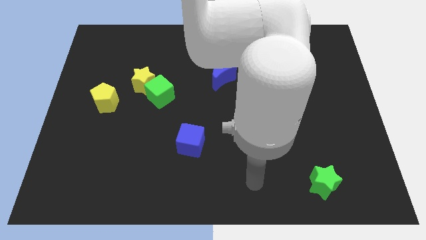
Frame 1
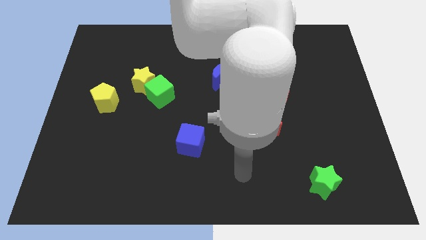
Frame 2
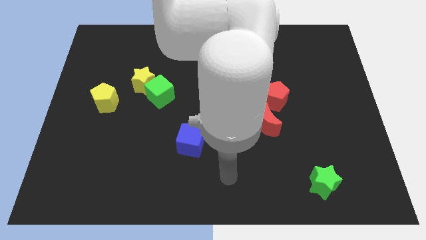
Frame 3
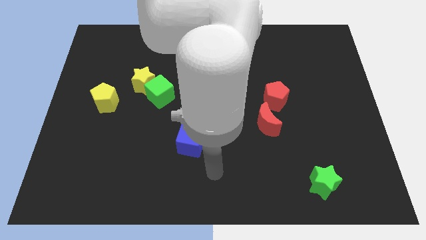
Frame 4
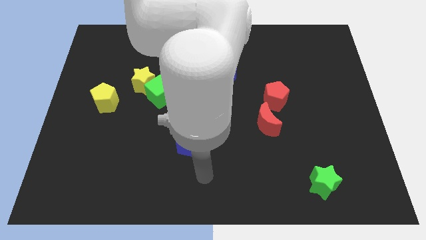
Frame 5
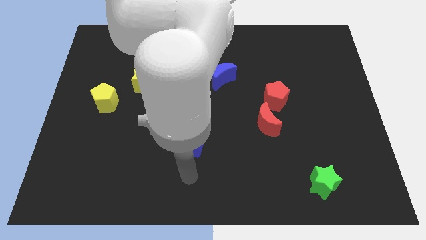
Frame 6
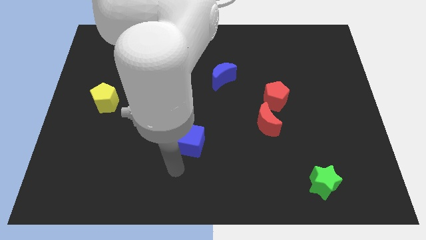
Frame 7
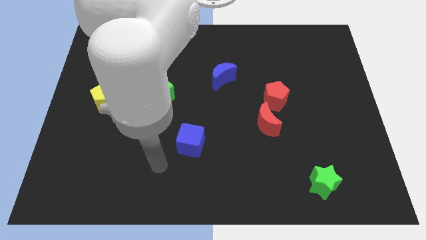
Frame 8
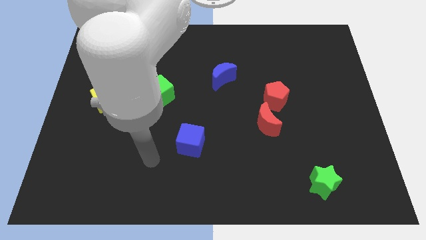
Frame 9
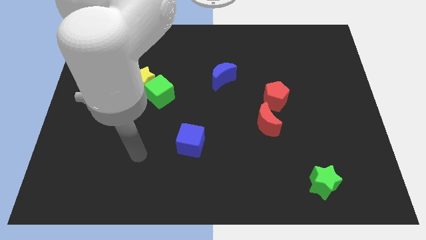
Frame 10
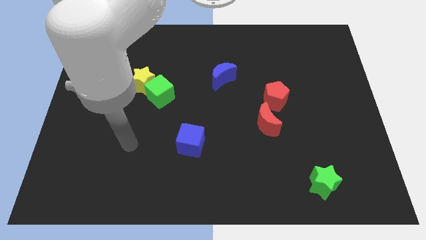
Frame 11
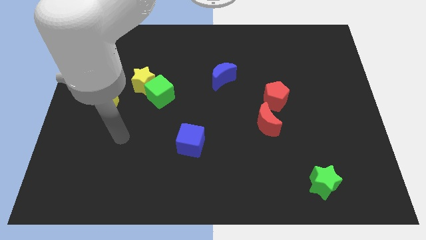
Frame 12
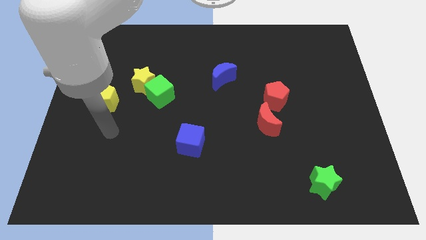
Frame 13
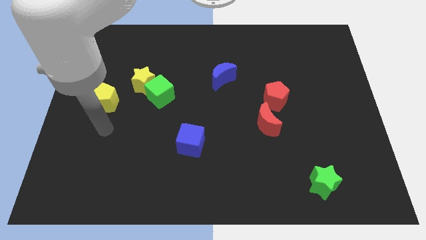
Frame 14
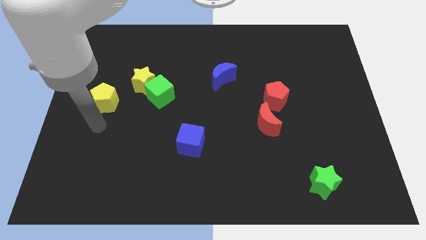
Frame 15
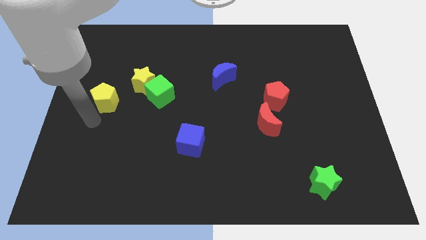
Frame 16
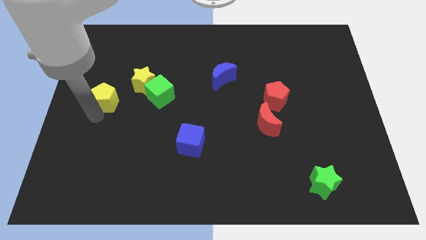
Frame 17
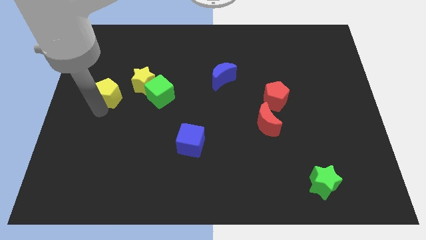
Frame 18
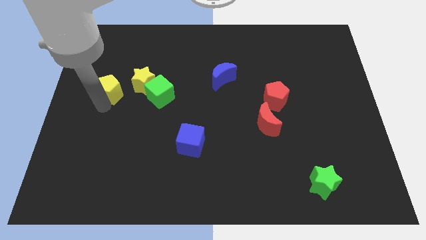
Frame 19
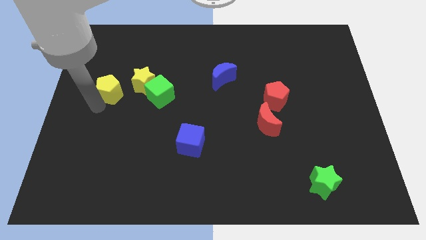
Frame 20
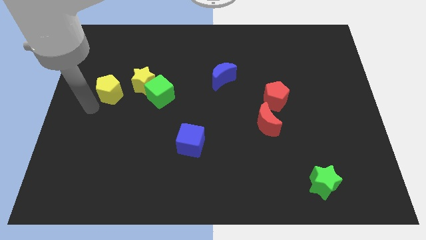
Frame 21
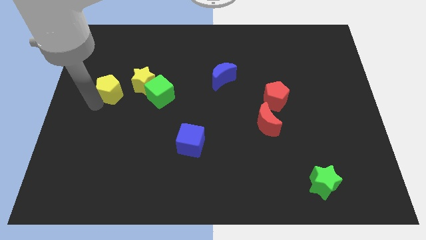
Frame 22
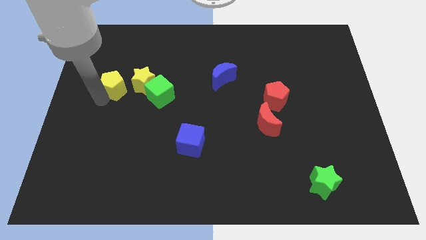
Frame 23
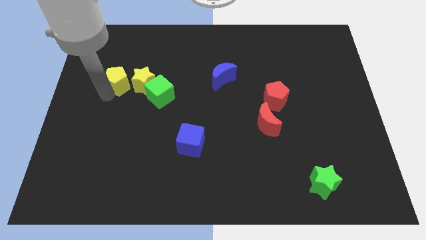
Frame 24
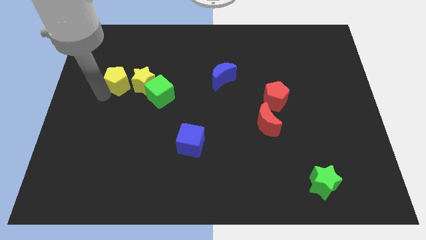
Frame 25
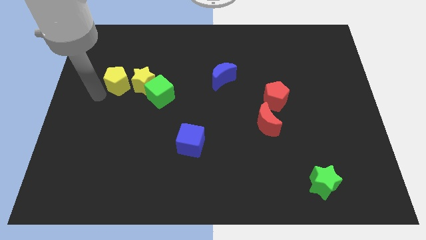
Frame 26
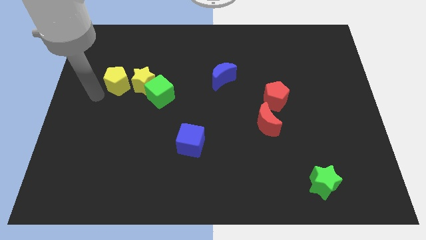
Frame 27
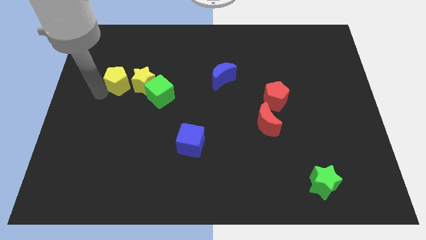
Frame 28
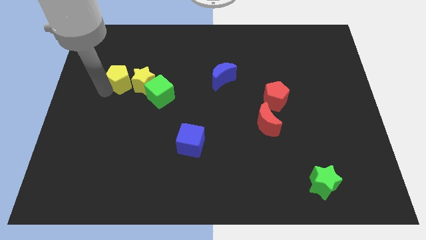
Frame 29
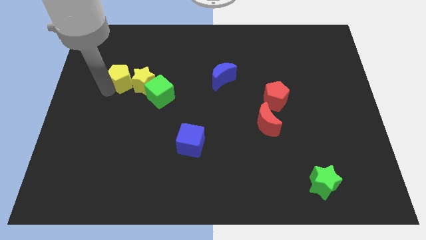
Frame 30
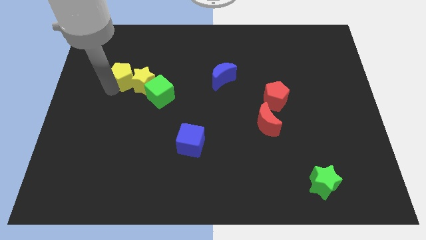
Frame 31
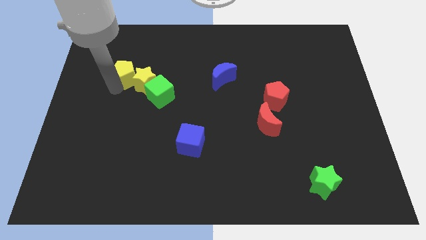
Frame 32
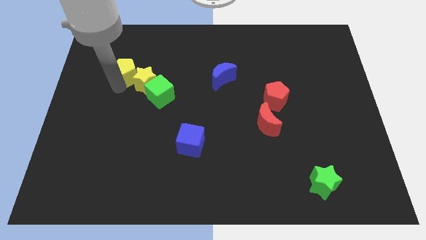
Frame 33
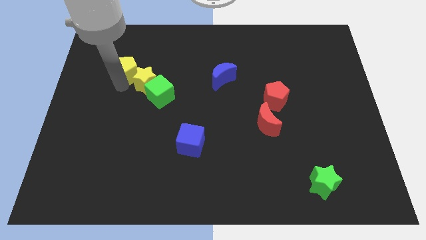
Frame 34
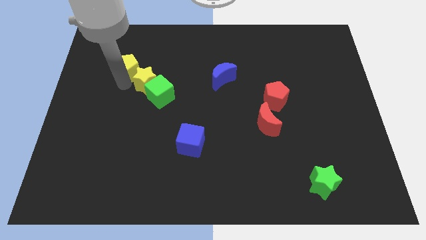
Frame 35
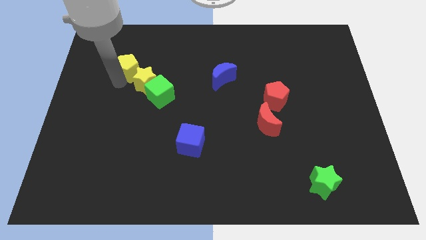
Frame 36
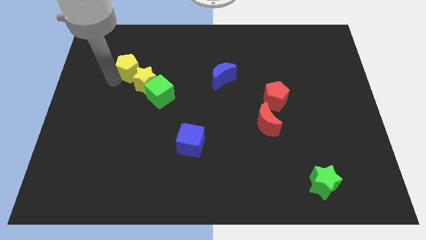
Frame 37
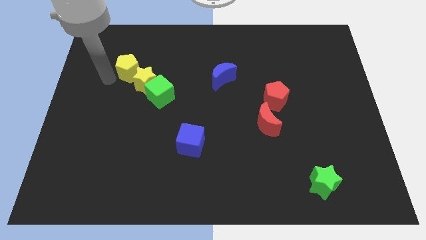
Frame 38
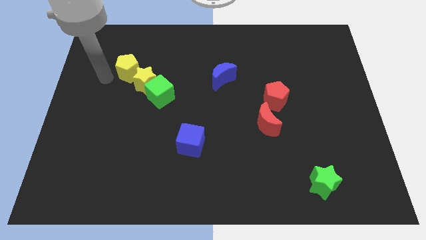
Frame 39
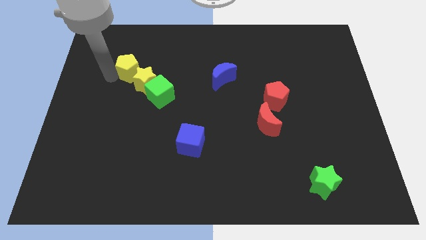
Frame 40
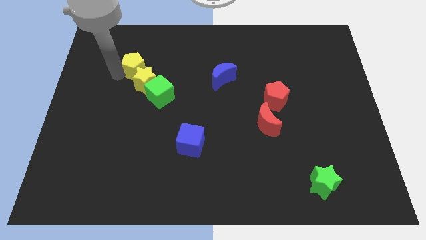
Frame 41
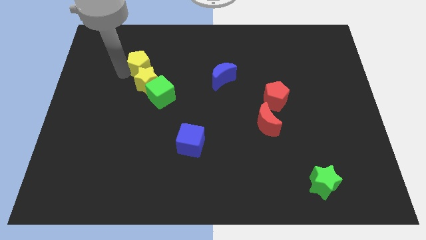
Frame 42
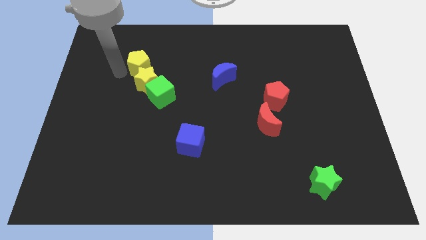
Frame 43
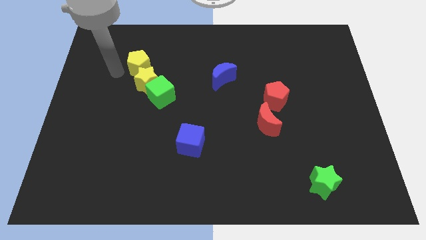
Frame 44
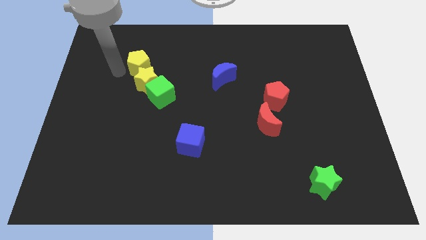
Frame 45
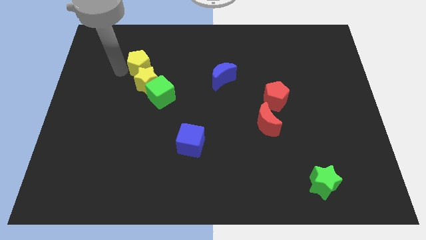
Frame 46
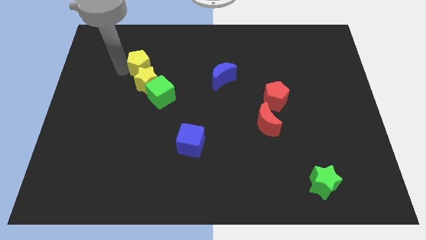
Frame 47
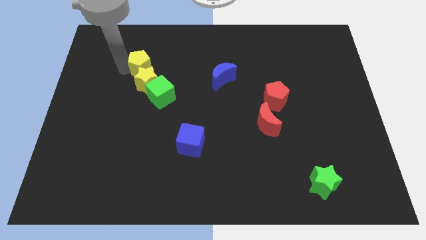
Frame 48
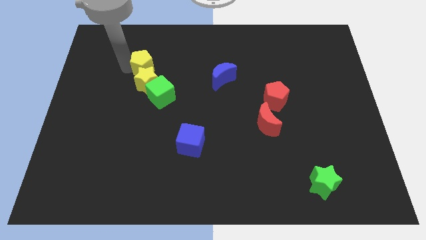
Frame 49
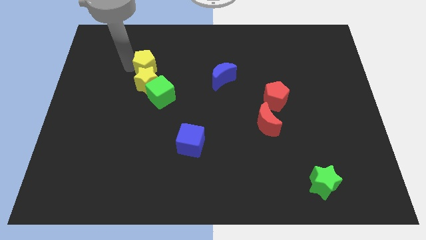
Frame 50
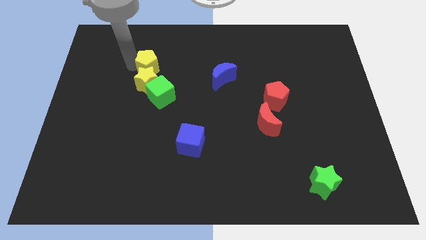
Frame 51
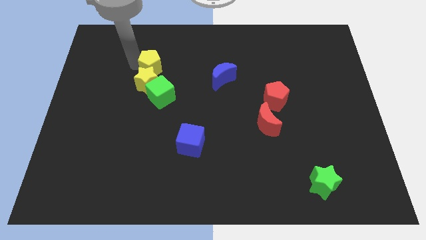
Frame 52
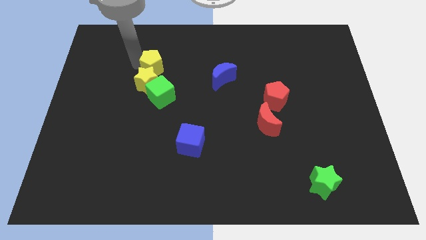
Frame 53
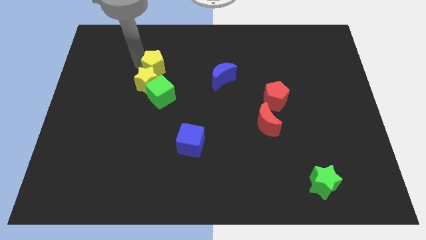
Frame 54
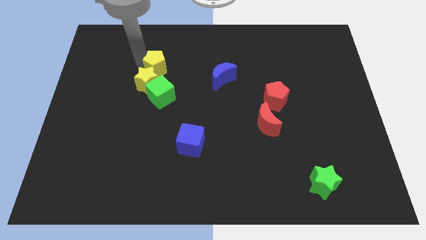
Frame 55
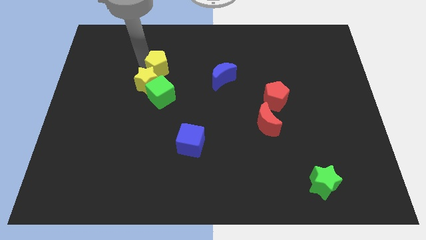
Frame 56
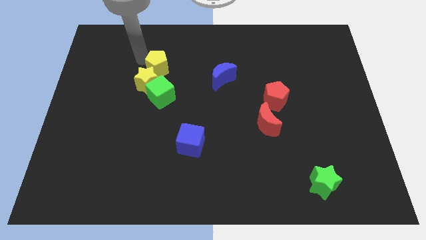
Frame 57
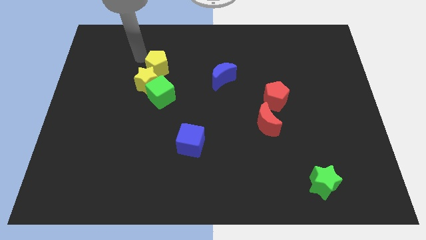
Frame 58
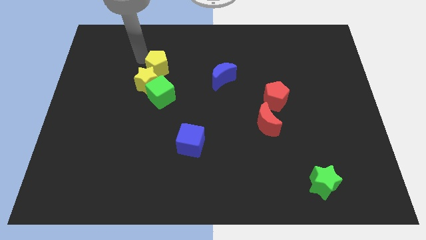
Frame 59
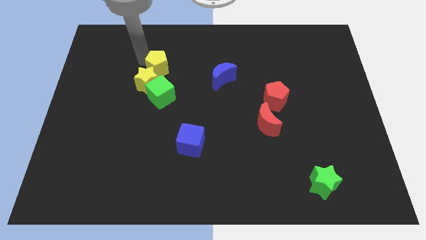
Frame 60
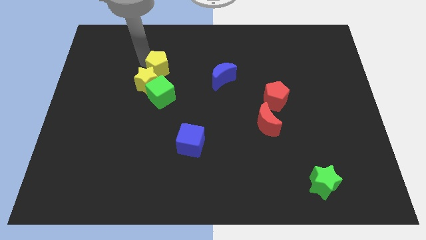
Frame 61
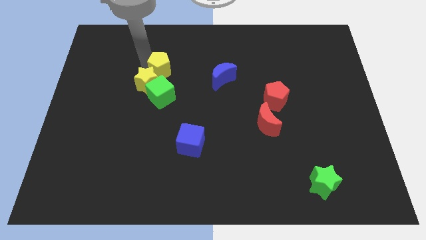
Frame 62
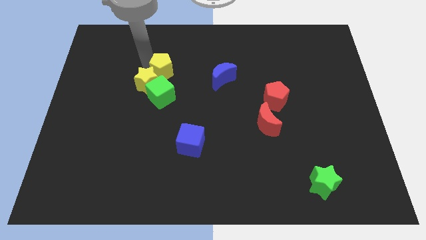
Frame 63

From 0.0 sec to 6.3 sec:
put the yellow pentagon to the left of the blue moon

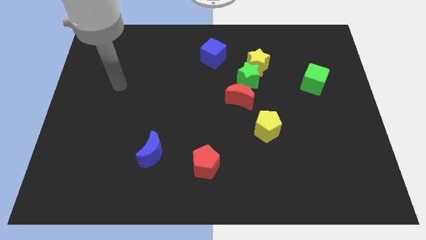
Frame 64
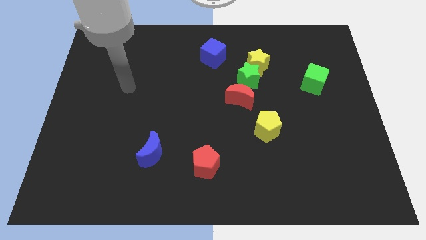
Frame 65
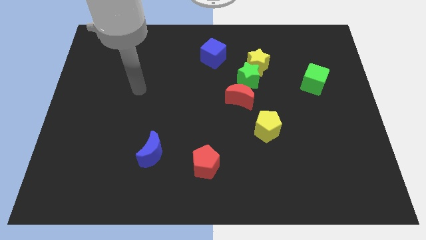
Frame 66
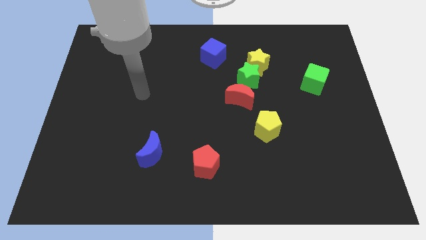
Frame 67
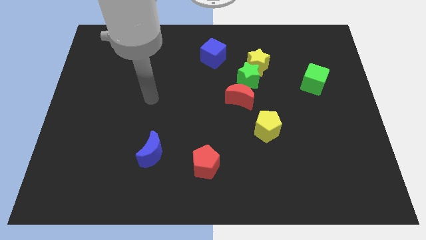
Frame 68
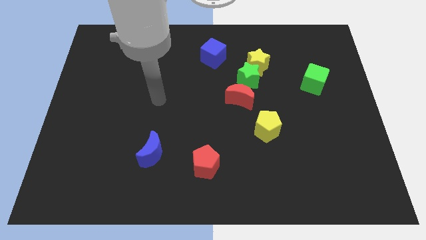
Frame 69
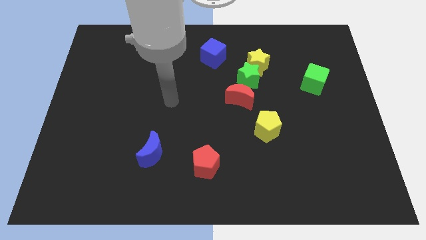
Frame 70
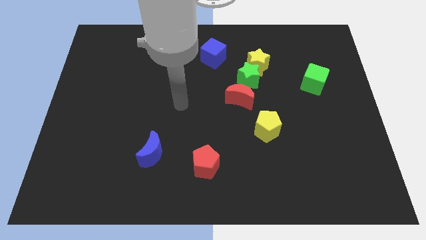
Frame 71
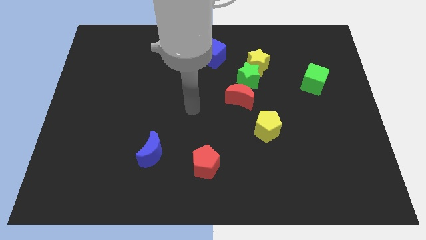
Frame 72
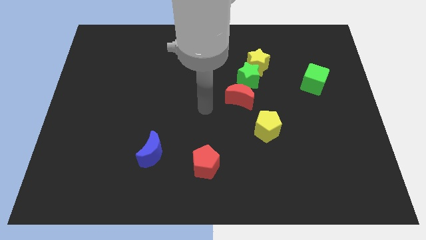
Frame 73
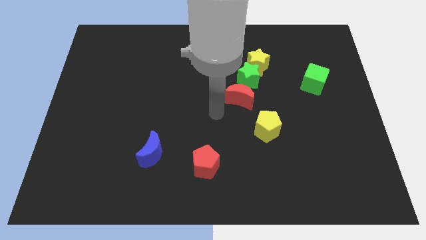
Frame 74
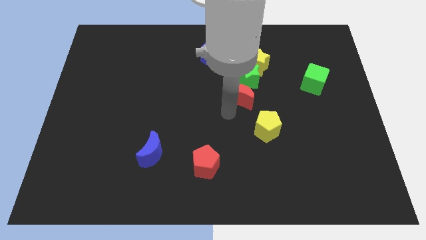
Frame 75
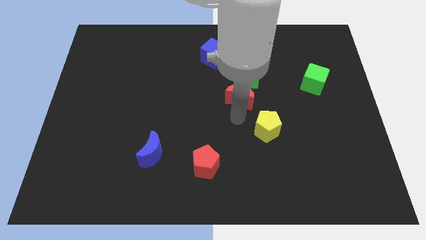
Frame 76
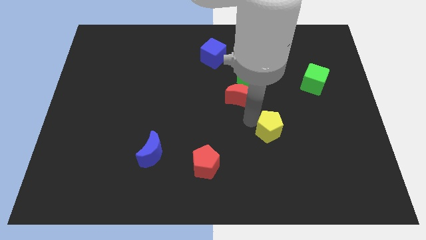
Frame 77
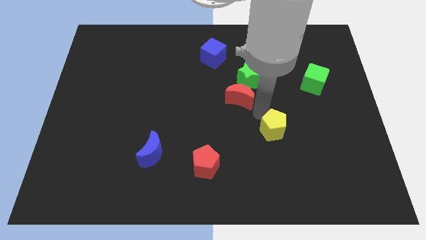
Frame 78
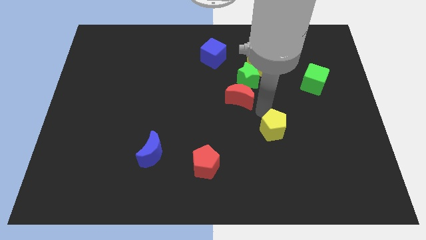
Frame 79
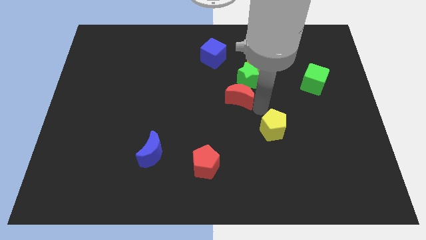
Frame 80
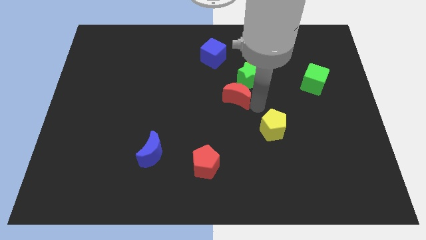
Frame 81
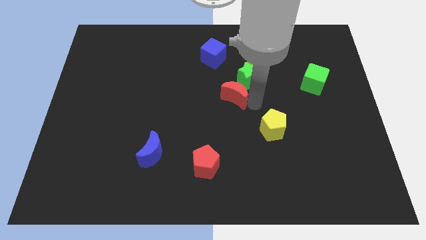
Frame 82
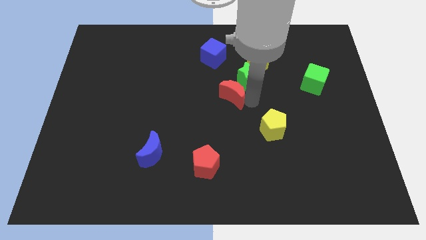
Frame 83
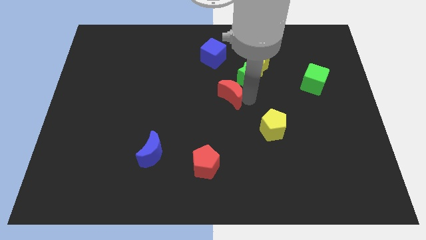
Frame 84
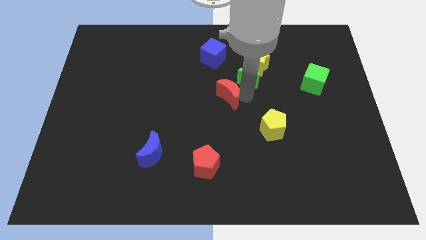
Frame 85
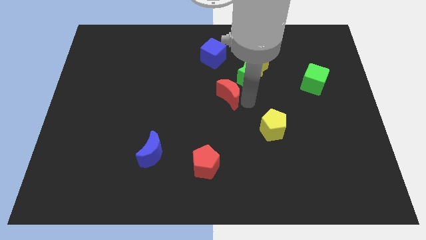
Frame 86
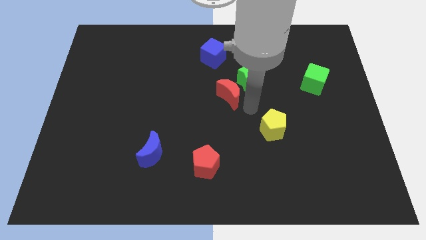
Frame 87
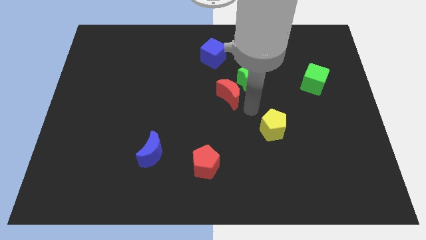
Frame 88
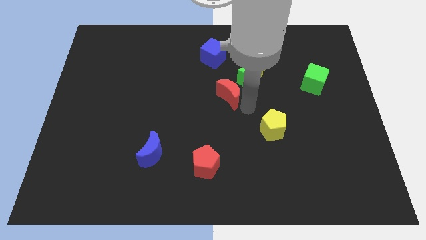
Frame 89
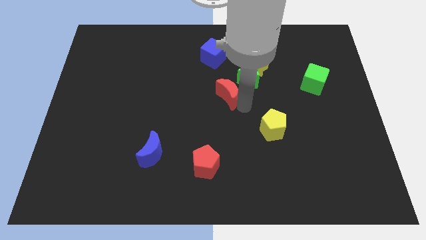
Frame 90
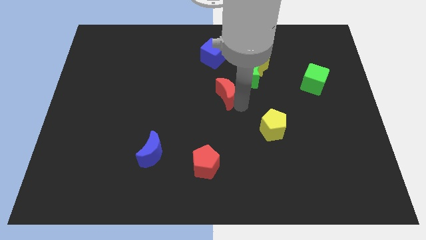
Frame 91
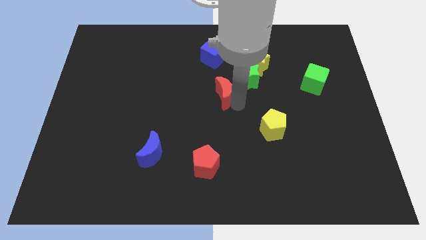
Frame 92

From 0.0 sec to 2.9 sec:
move the red moon to the left side of the green star
